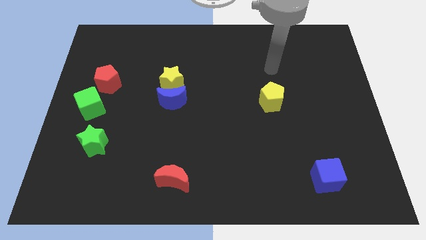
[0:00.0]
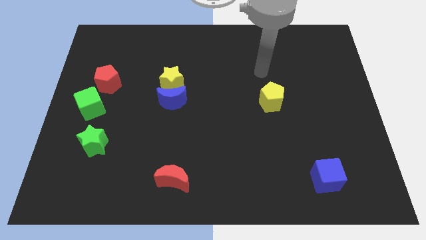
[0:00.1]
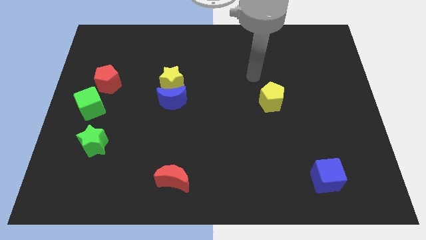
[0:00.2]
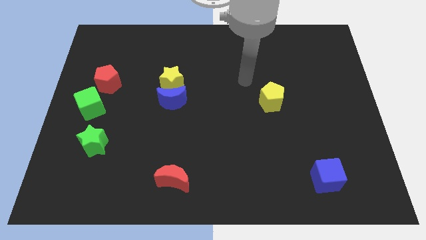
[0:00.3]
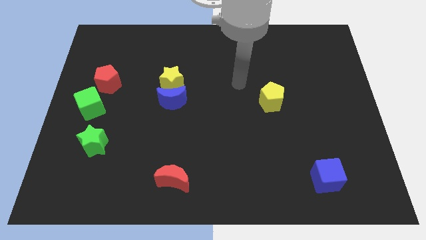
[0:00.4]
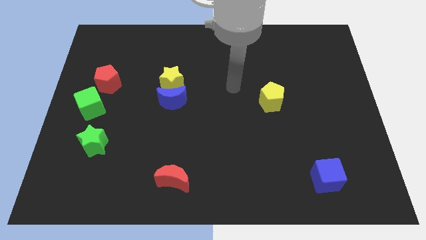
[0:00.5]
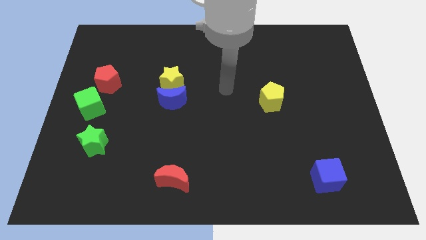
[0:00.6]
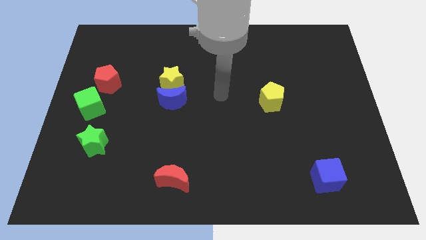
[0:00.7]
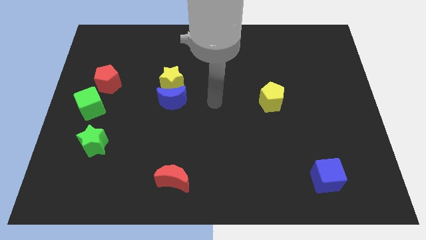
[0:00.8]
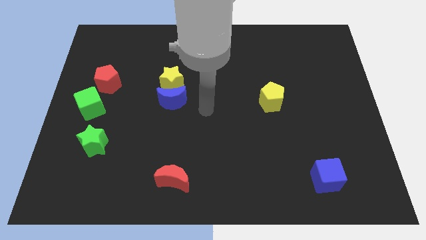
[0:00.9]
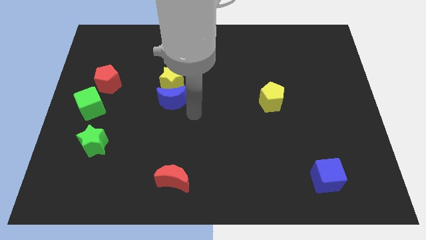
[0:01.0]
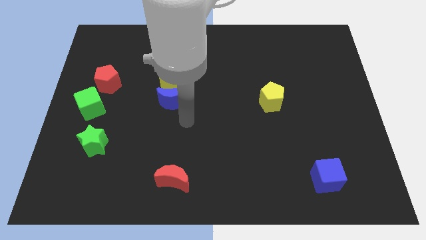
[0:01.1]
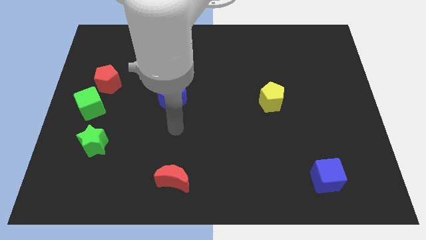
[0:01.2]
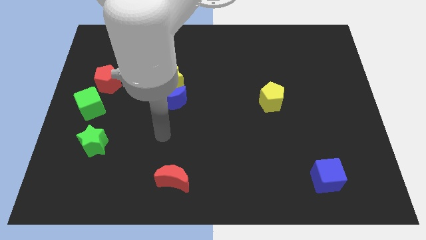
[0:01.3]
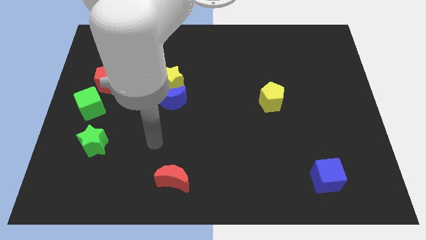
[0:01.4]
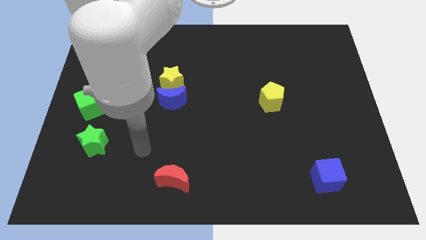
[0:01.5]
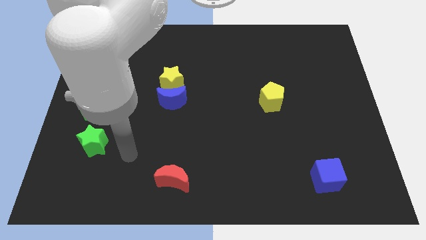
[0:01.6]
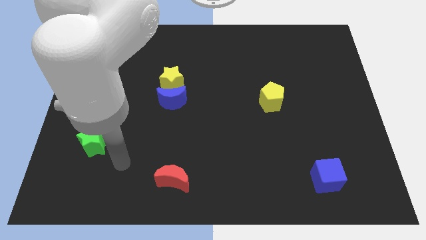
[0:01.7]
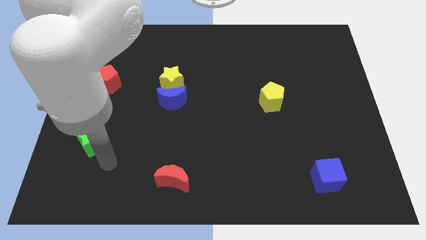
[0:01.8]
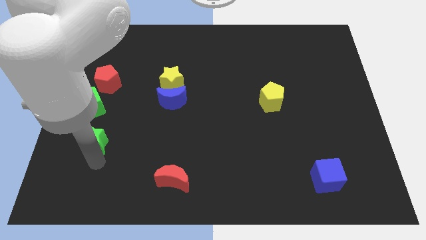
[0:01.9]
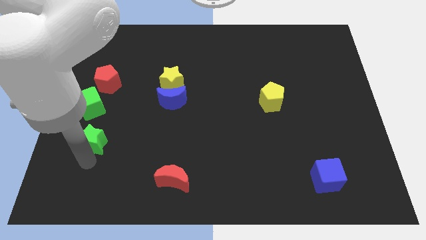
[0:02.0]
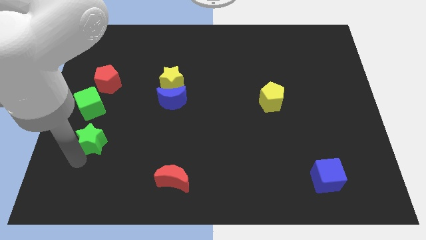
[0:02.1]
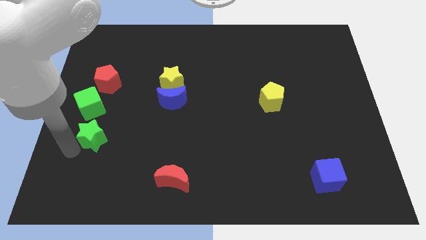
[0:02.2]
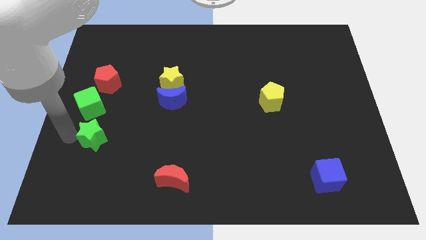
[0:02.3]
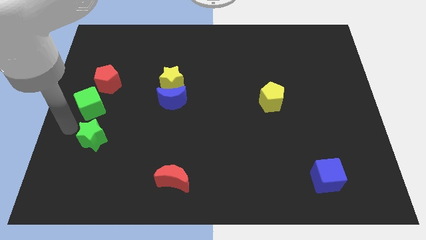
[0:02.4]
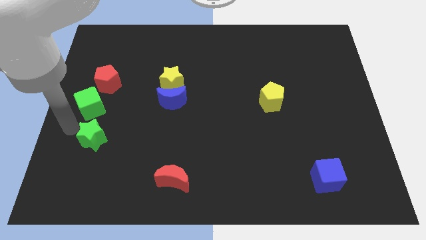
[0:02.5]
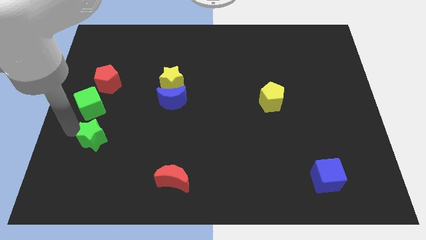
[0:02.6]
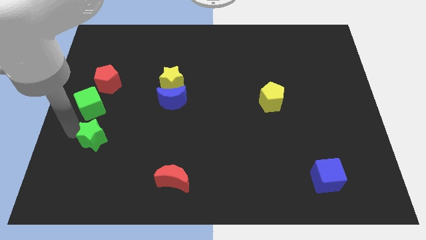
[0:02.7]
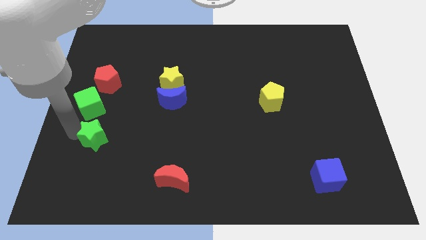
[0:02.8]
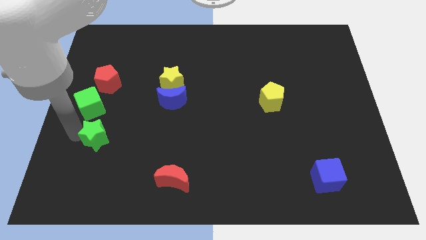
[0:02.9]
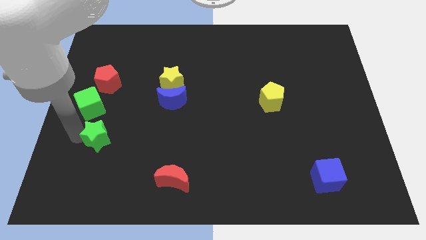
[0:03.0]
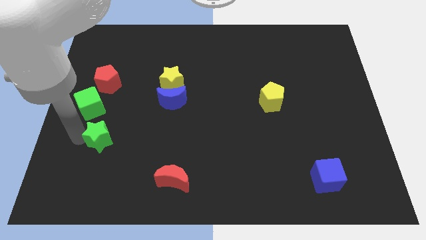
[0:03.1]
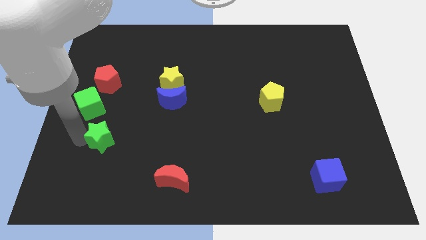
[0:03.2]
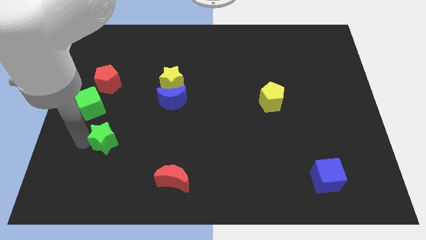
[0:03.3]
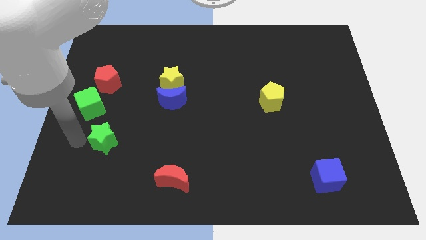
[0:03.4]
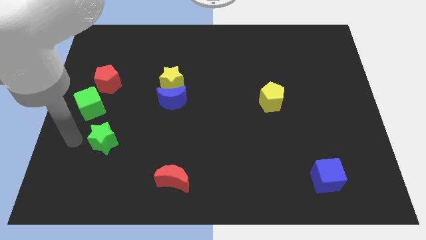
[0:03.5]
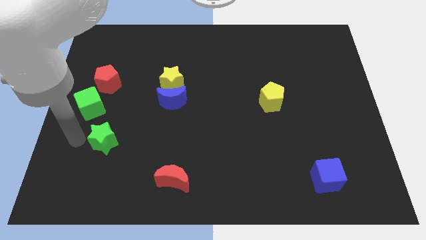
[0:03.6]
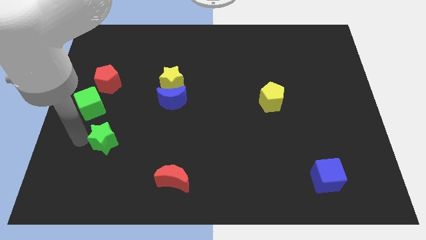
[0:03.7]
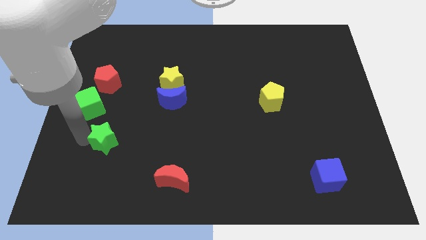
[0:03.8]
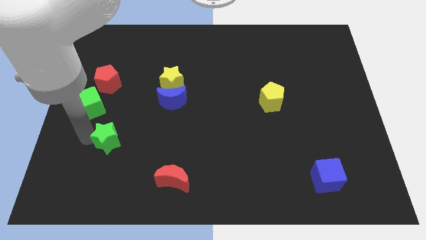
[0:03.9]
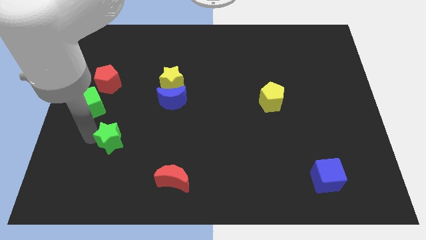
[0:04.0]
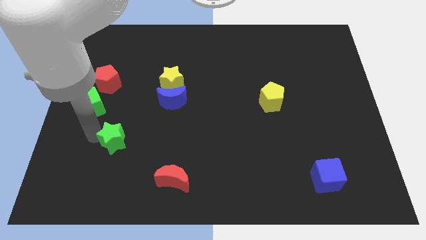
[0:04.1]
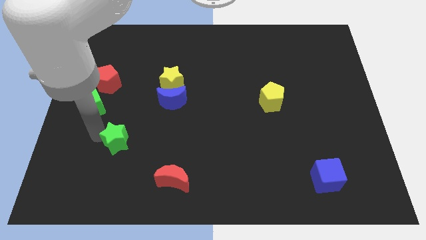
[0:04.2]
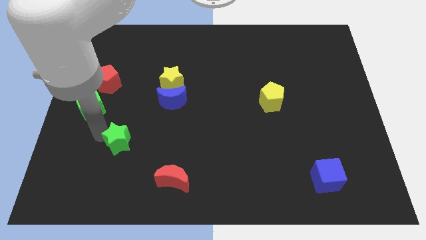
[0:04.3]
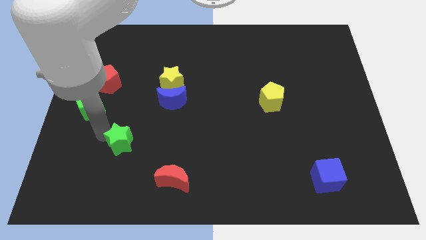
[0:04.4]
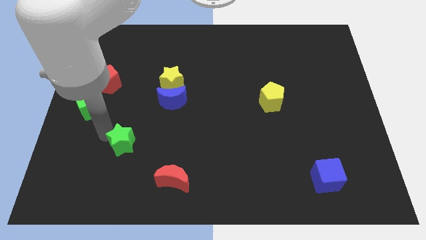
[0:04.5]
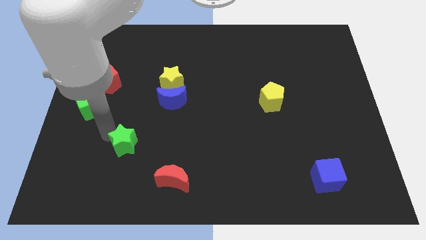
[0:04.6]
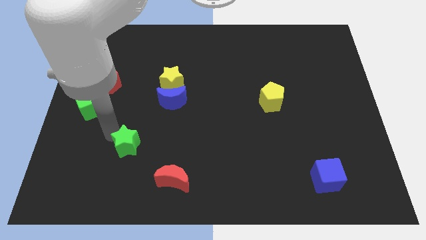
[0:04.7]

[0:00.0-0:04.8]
slightly move the green star right

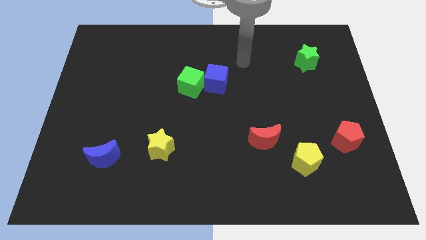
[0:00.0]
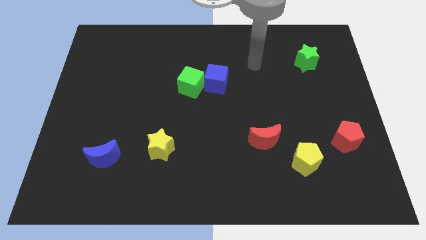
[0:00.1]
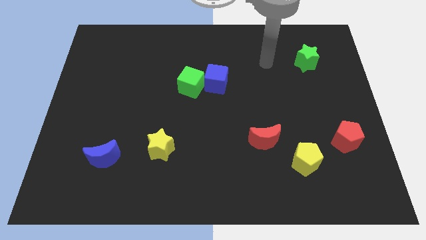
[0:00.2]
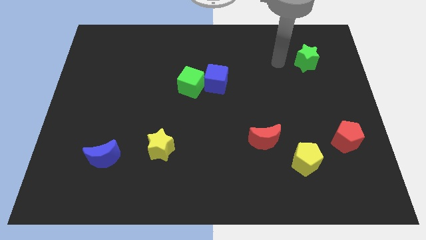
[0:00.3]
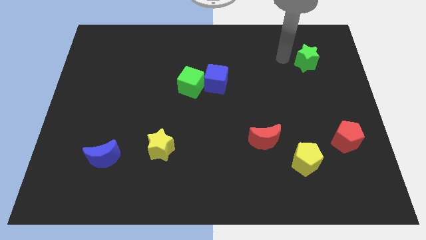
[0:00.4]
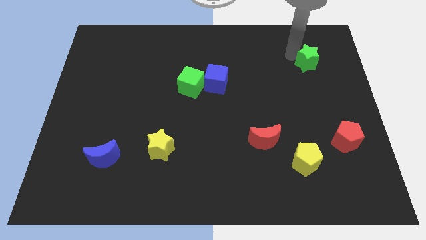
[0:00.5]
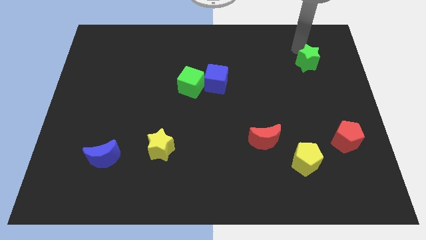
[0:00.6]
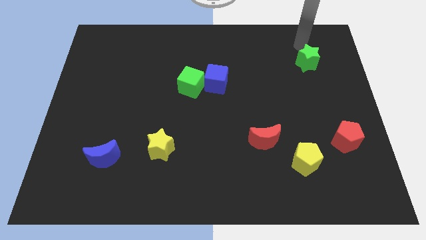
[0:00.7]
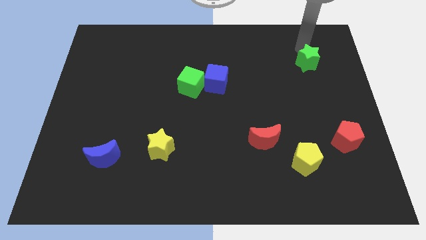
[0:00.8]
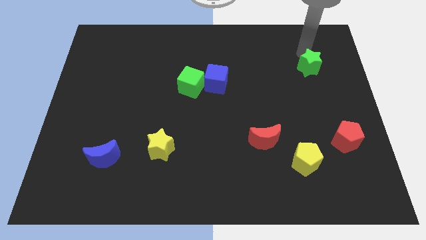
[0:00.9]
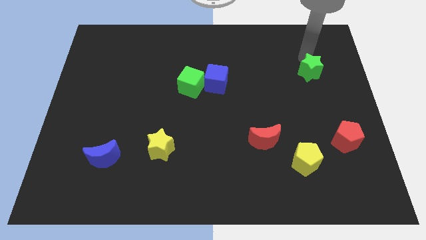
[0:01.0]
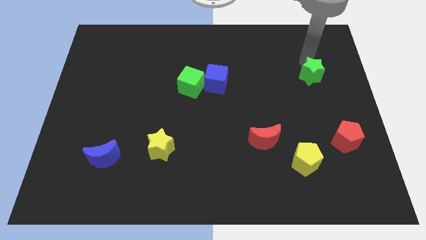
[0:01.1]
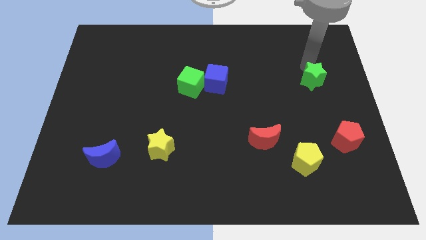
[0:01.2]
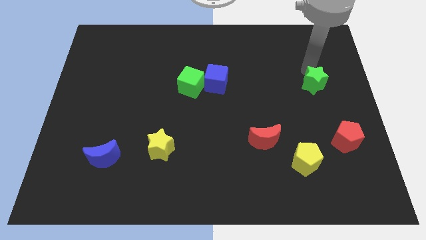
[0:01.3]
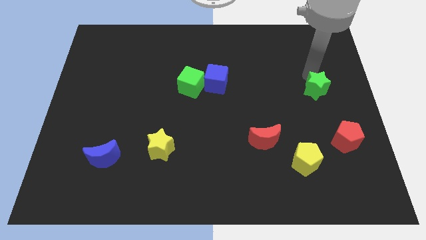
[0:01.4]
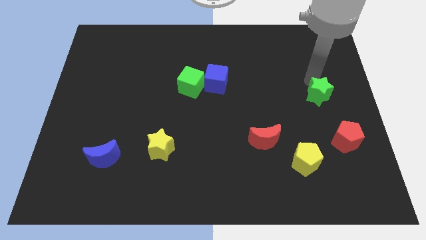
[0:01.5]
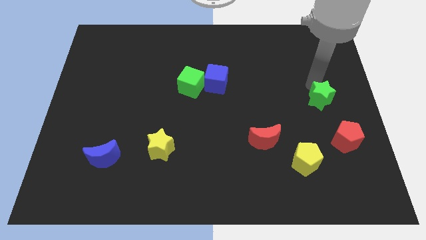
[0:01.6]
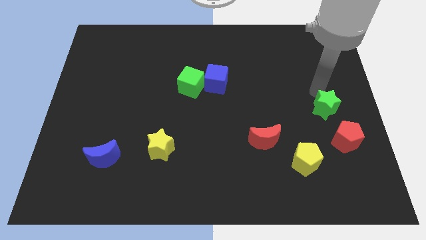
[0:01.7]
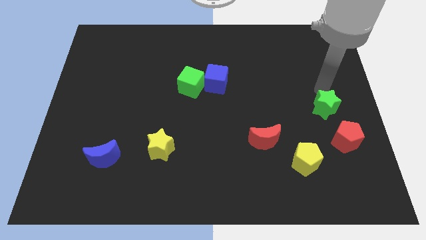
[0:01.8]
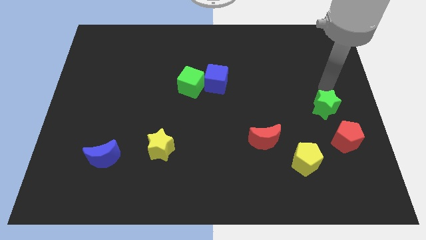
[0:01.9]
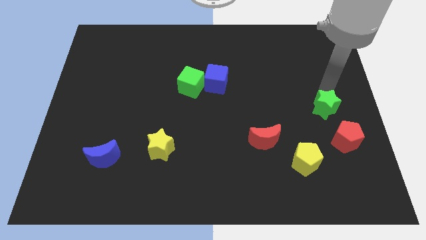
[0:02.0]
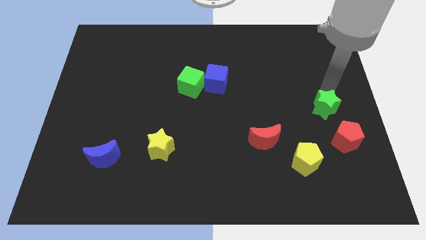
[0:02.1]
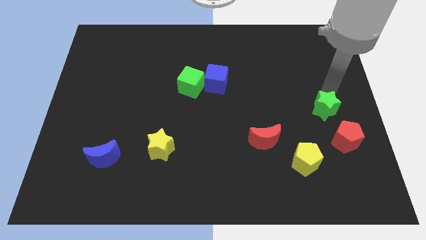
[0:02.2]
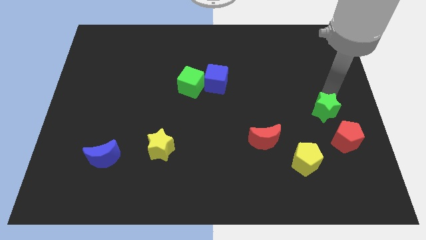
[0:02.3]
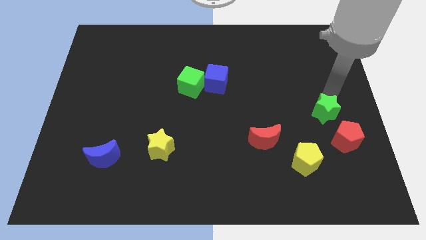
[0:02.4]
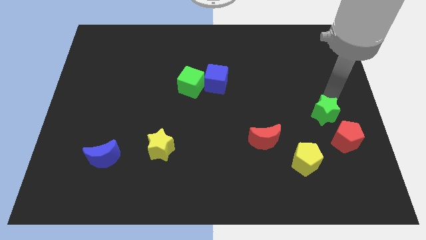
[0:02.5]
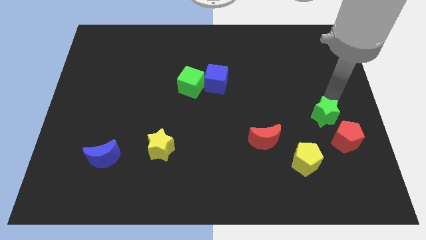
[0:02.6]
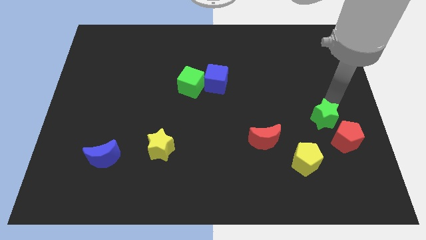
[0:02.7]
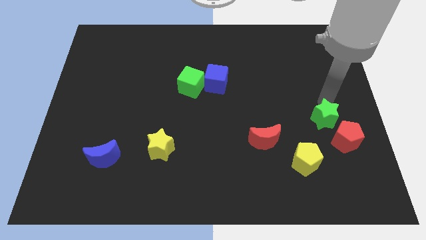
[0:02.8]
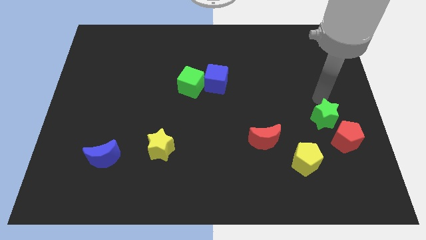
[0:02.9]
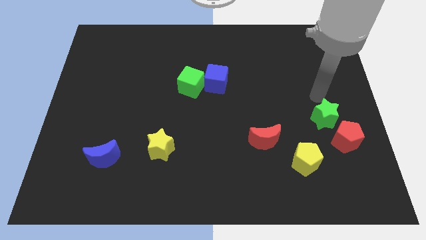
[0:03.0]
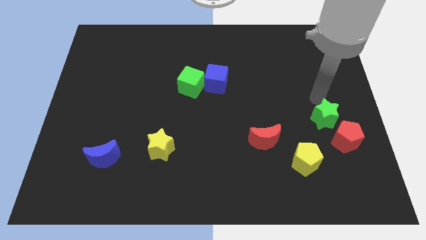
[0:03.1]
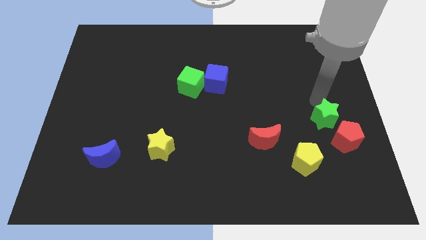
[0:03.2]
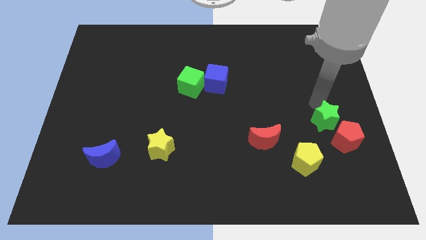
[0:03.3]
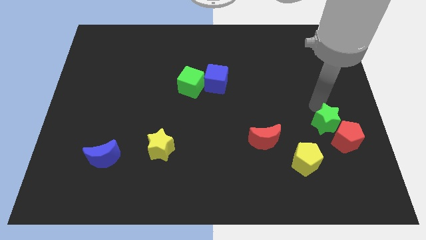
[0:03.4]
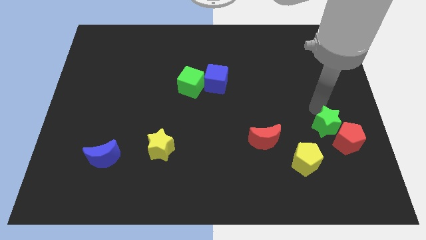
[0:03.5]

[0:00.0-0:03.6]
push the green star downwards
